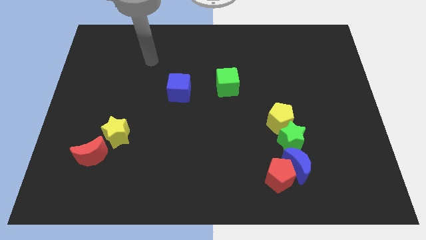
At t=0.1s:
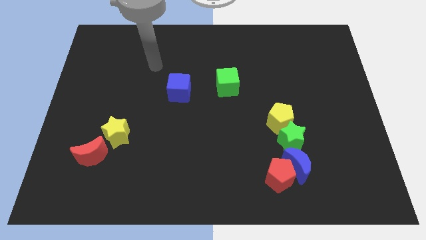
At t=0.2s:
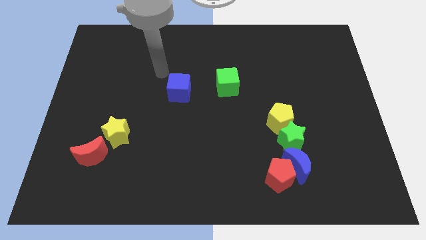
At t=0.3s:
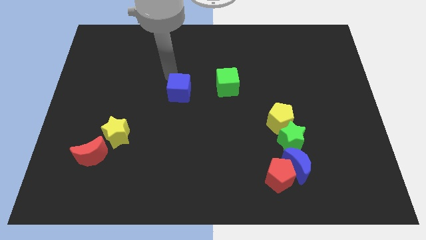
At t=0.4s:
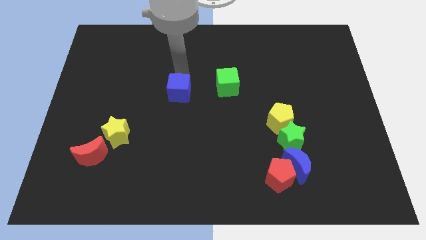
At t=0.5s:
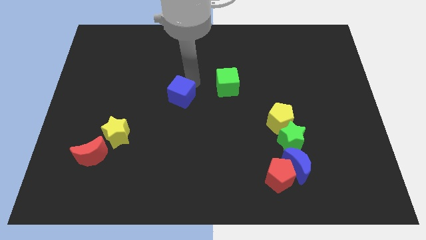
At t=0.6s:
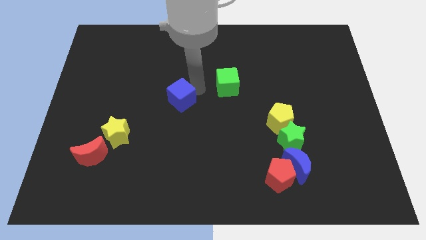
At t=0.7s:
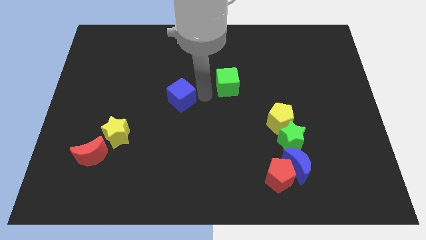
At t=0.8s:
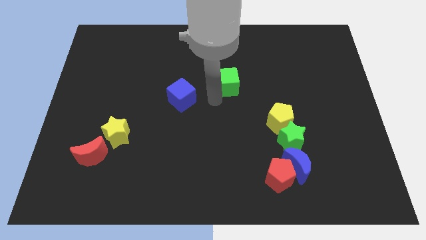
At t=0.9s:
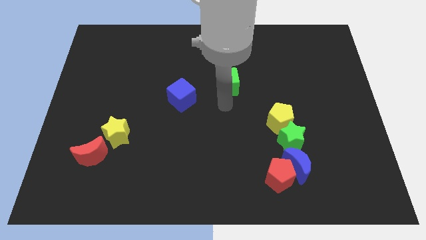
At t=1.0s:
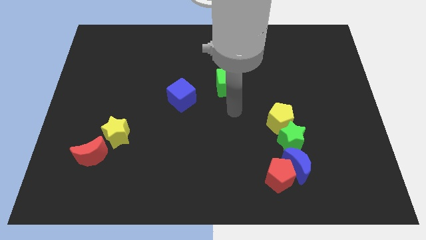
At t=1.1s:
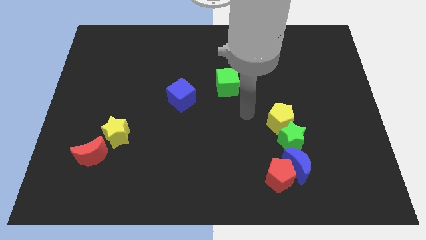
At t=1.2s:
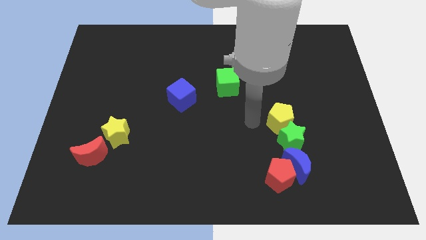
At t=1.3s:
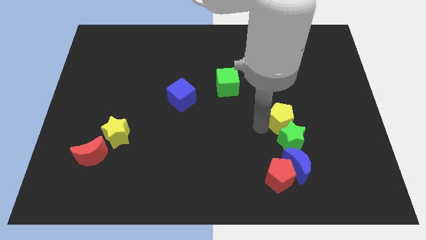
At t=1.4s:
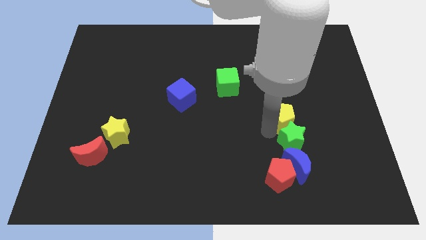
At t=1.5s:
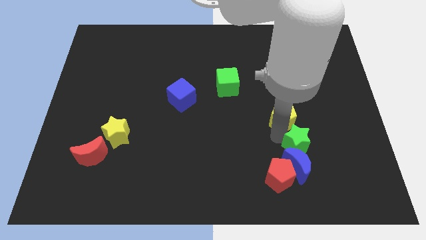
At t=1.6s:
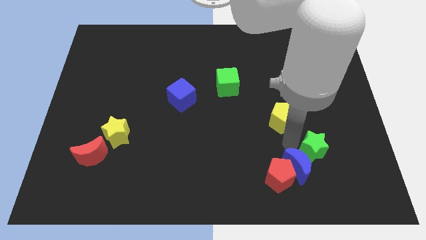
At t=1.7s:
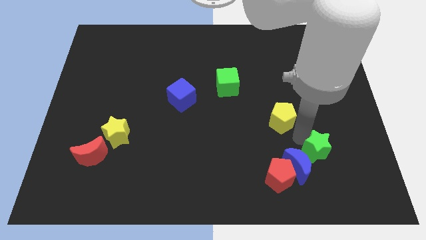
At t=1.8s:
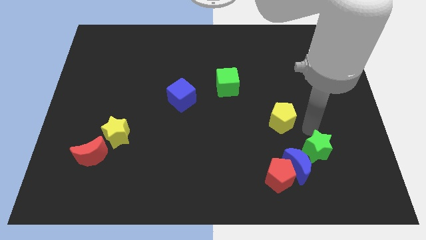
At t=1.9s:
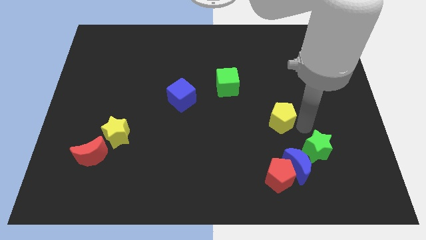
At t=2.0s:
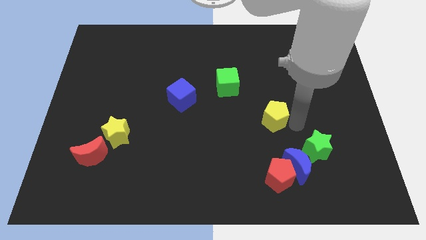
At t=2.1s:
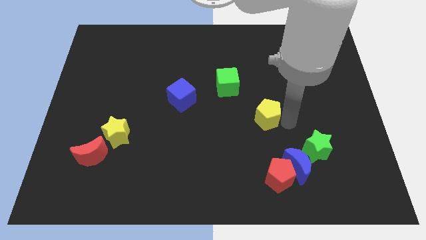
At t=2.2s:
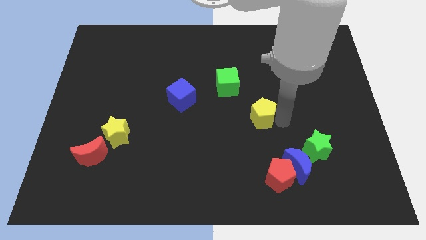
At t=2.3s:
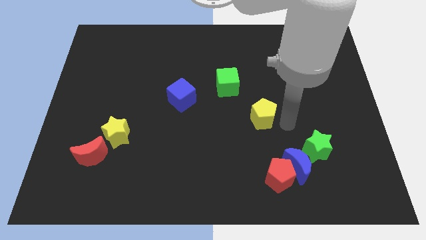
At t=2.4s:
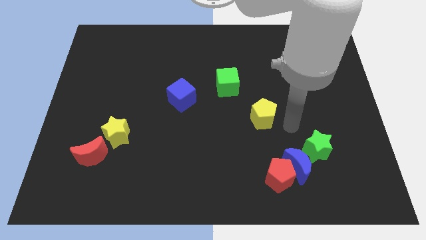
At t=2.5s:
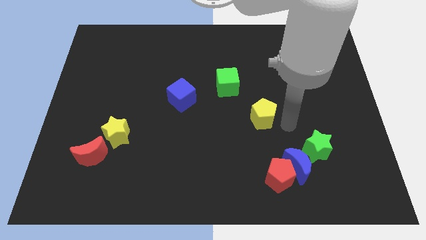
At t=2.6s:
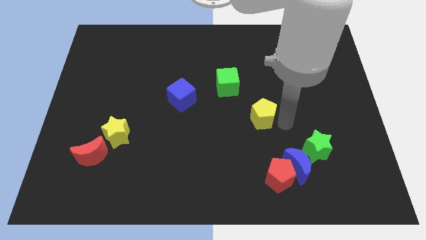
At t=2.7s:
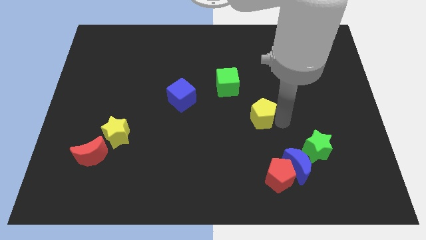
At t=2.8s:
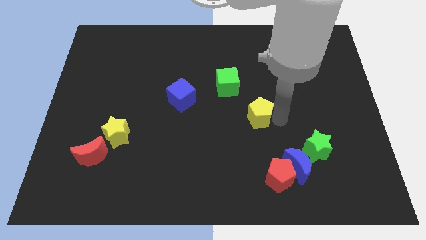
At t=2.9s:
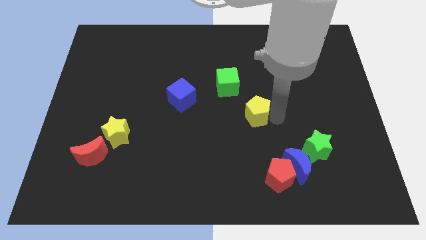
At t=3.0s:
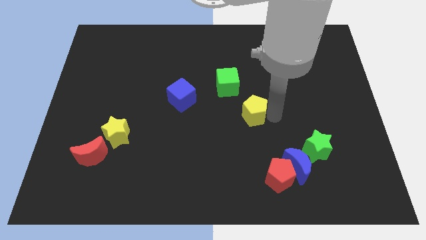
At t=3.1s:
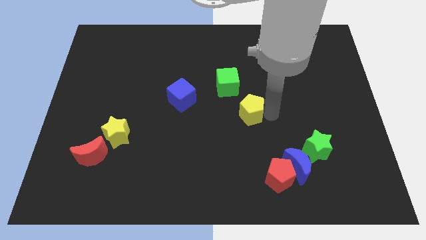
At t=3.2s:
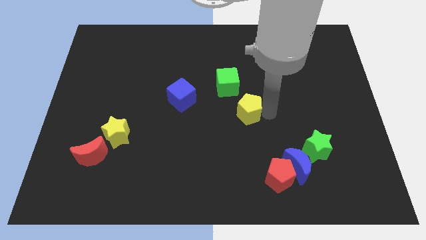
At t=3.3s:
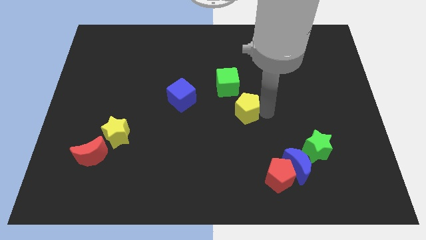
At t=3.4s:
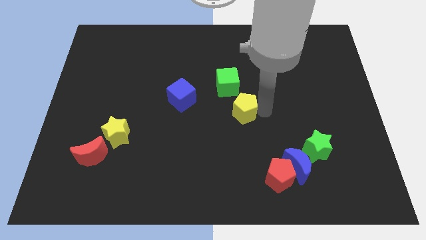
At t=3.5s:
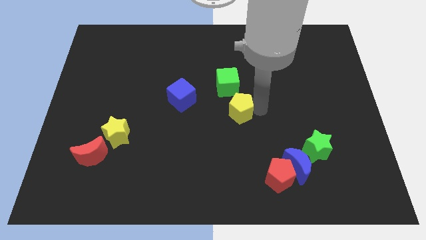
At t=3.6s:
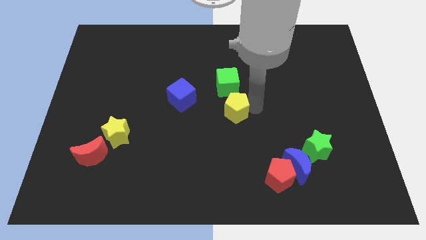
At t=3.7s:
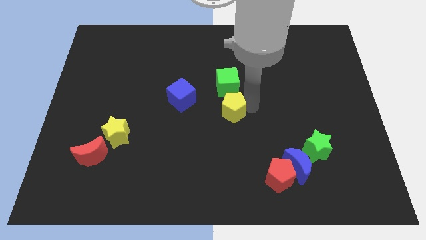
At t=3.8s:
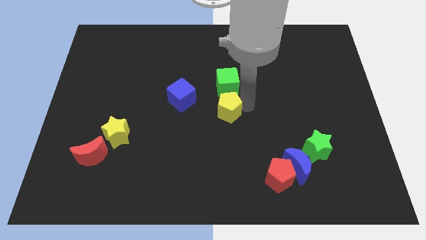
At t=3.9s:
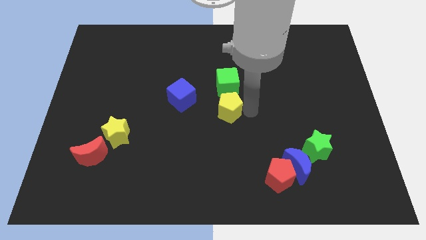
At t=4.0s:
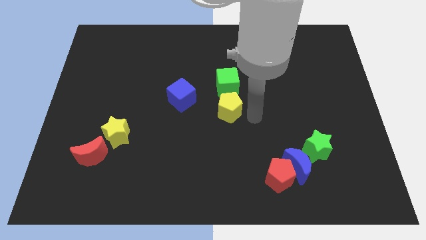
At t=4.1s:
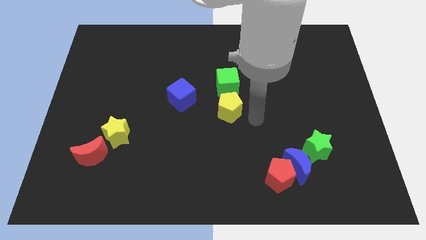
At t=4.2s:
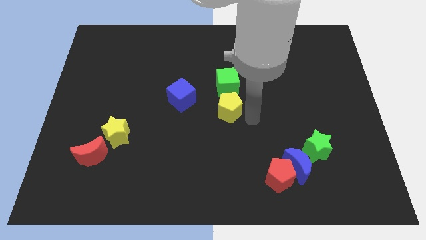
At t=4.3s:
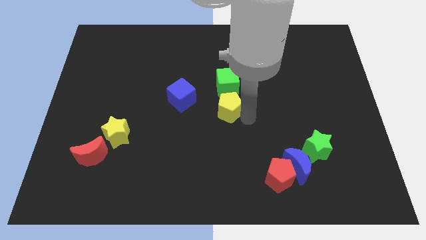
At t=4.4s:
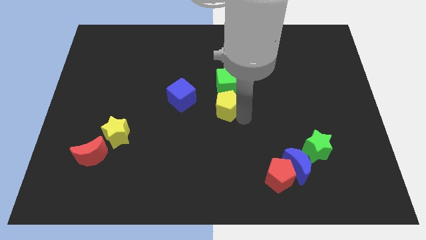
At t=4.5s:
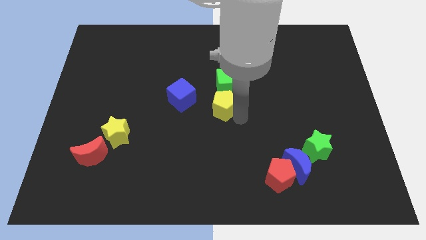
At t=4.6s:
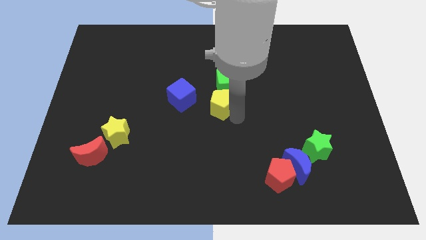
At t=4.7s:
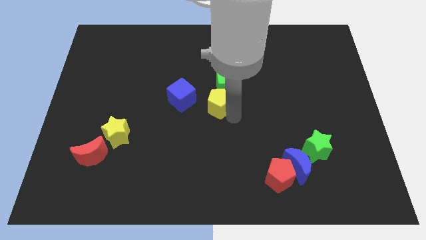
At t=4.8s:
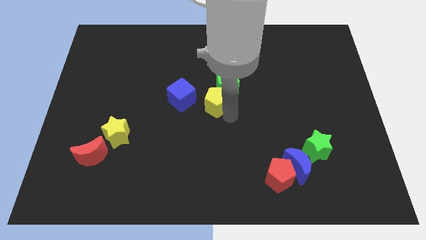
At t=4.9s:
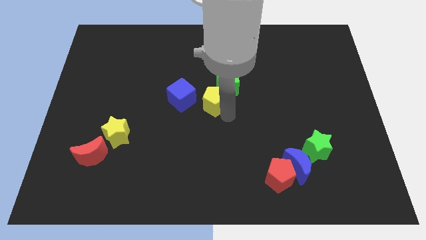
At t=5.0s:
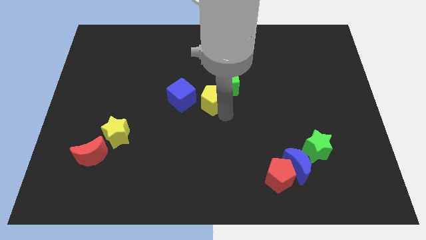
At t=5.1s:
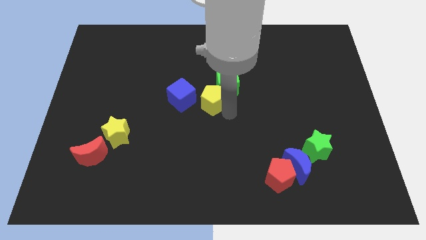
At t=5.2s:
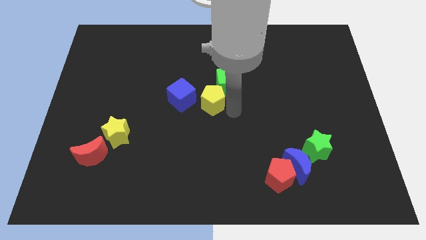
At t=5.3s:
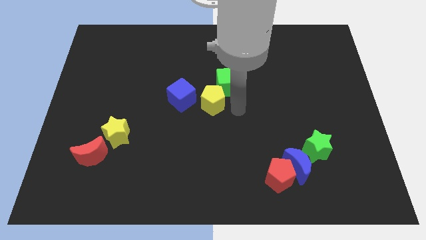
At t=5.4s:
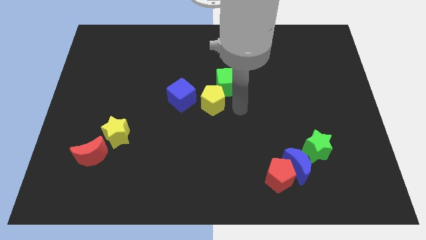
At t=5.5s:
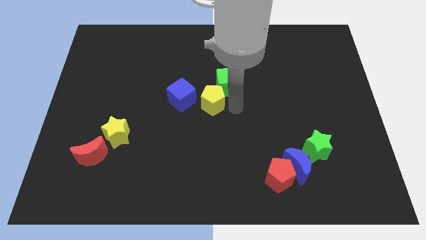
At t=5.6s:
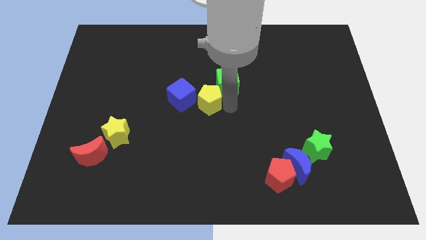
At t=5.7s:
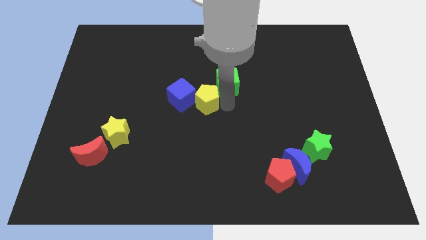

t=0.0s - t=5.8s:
push the yellow pentagon next to the blue cube

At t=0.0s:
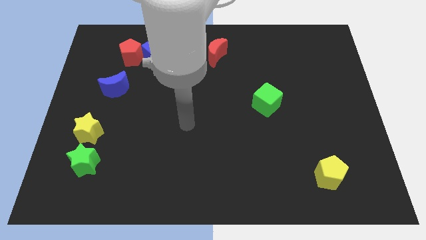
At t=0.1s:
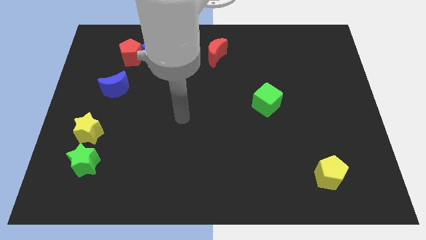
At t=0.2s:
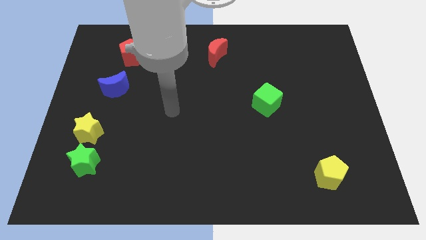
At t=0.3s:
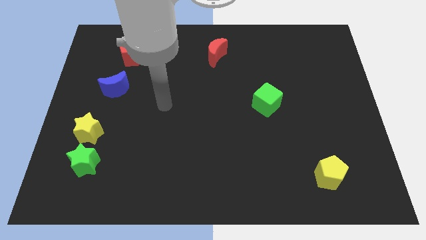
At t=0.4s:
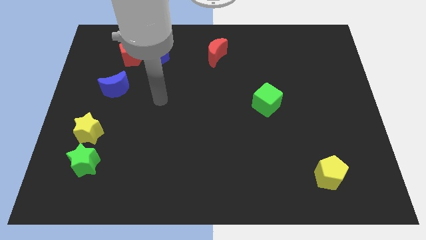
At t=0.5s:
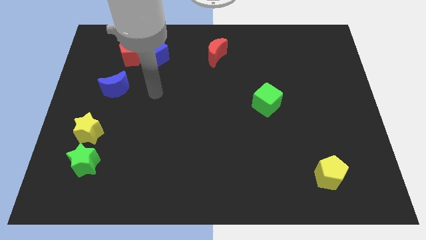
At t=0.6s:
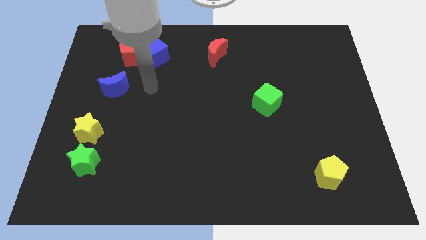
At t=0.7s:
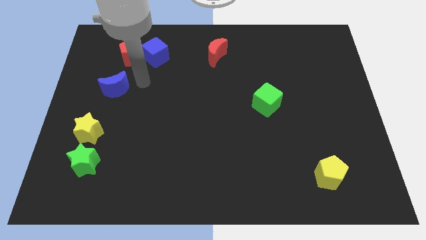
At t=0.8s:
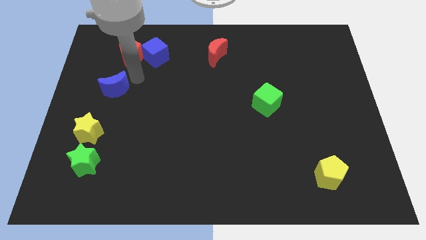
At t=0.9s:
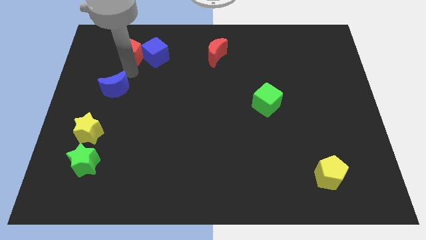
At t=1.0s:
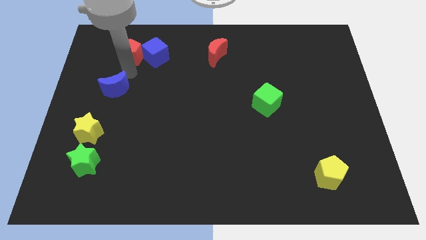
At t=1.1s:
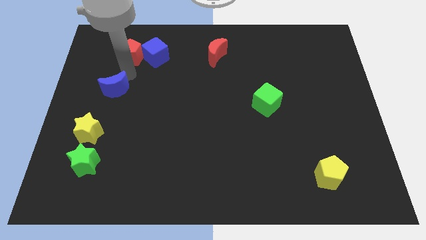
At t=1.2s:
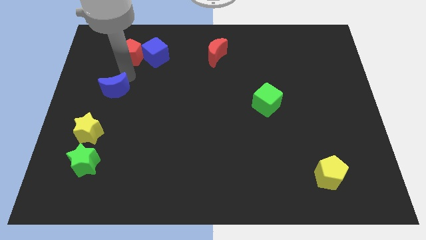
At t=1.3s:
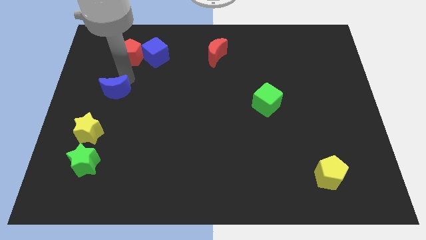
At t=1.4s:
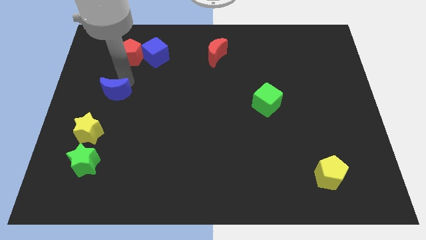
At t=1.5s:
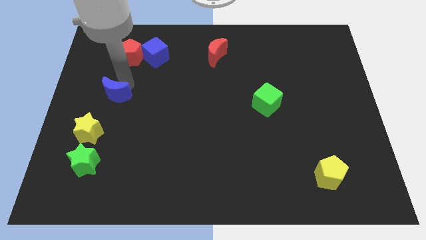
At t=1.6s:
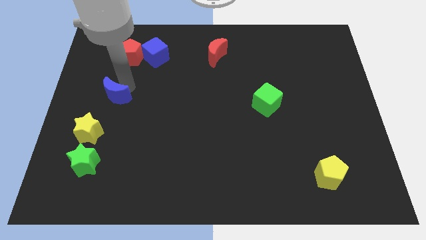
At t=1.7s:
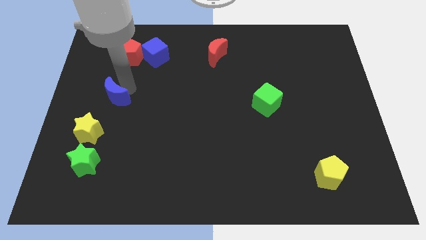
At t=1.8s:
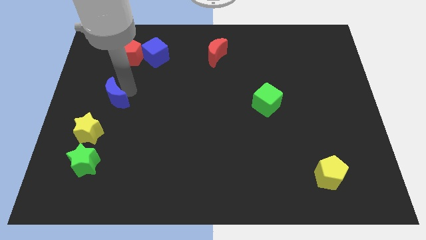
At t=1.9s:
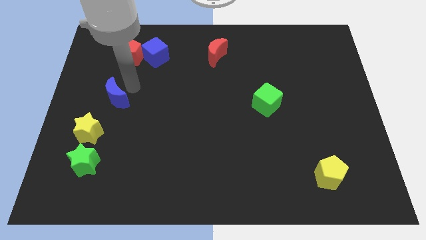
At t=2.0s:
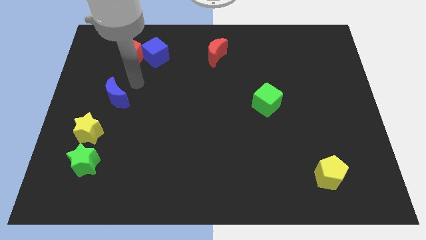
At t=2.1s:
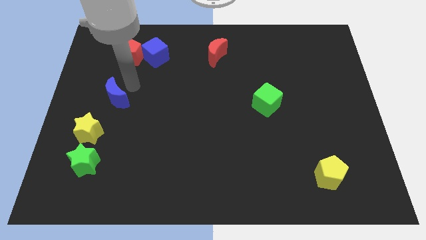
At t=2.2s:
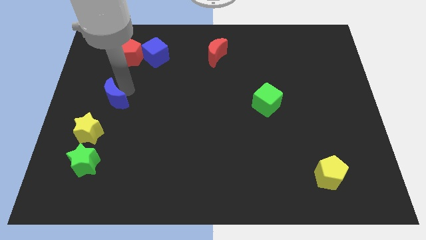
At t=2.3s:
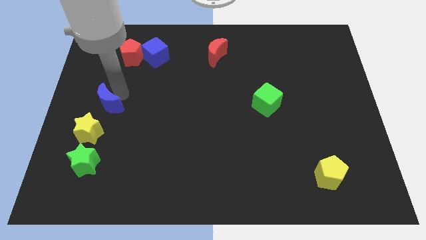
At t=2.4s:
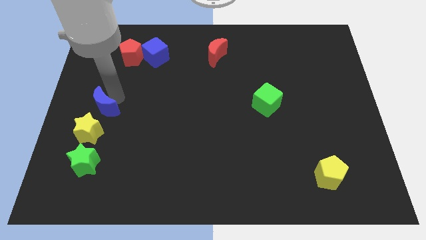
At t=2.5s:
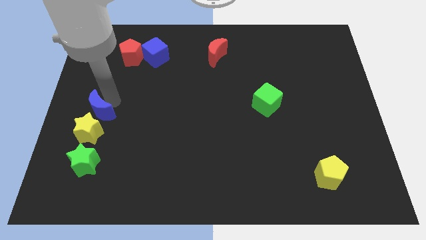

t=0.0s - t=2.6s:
push the blue moon close to the yellow star
